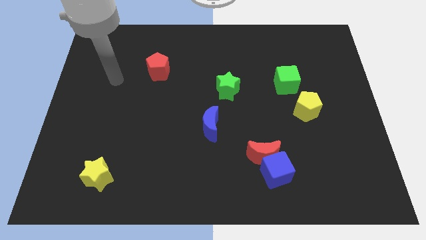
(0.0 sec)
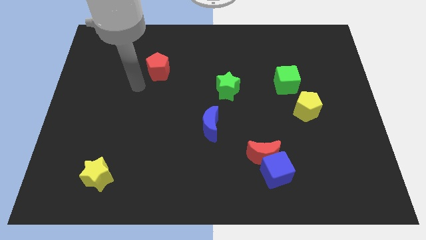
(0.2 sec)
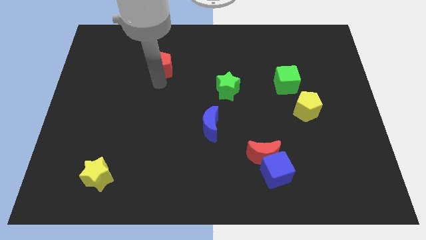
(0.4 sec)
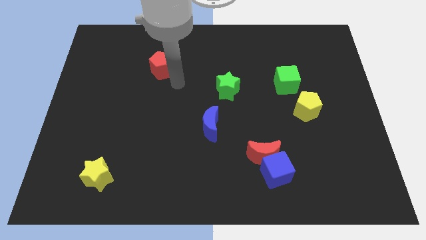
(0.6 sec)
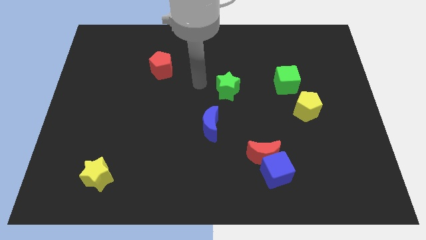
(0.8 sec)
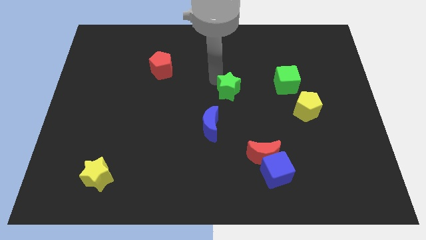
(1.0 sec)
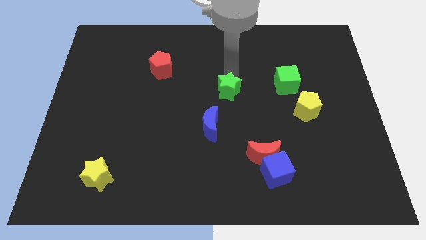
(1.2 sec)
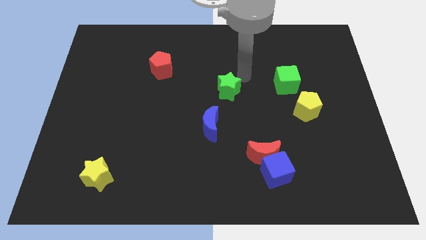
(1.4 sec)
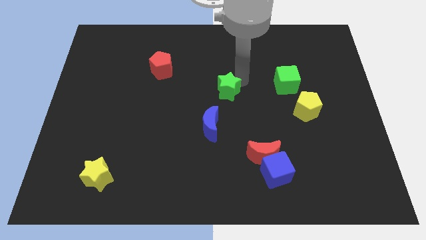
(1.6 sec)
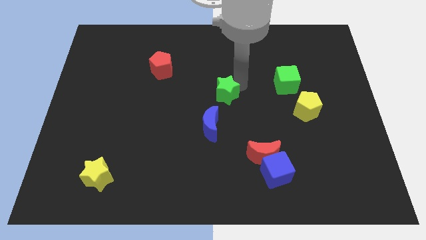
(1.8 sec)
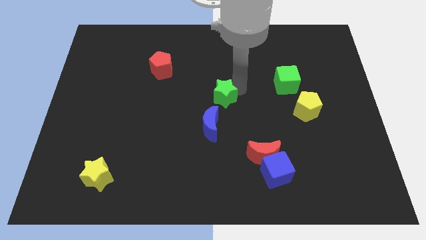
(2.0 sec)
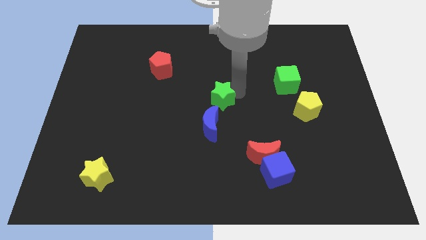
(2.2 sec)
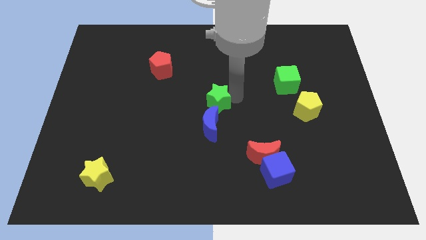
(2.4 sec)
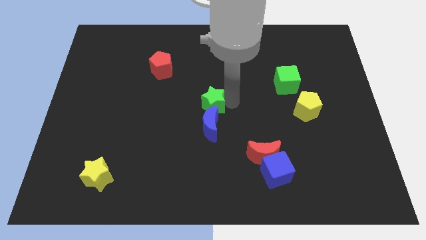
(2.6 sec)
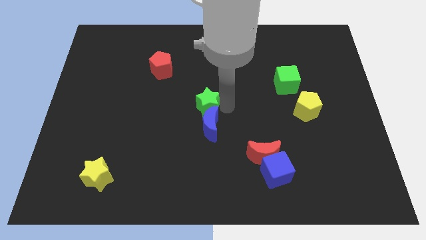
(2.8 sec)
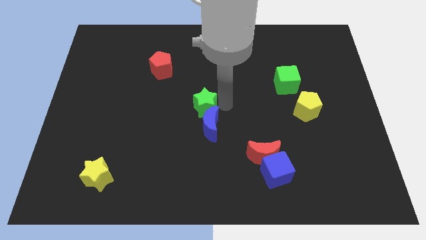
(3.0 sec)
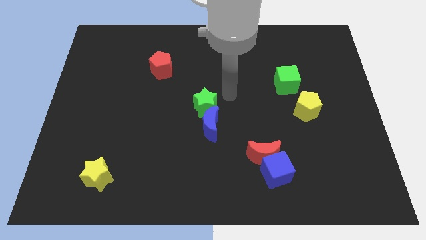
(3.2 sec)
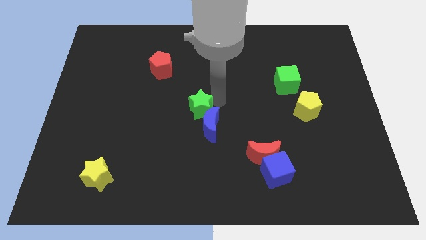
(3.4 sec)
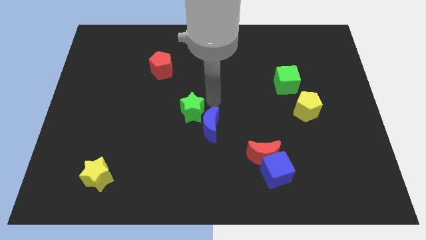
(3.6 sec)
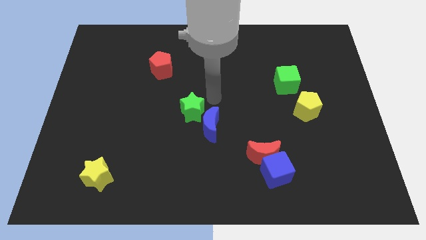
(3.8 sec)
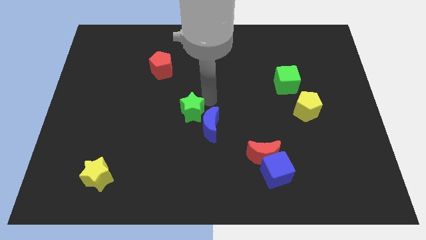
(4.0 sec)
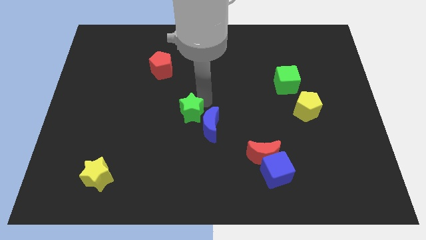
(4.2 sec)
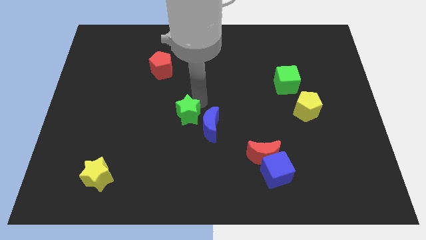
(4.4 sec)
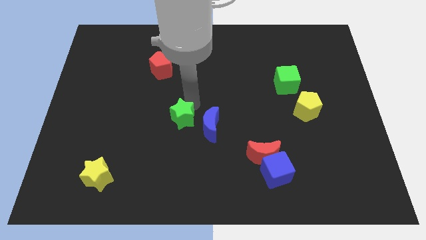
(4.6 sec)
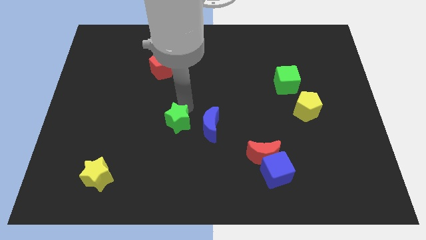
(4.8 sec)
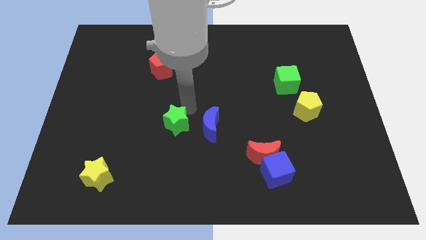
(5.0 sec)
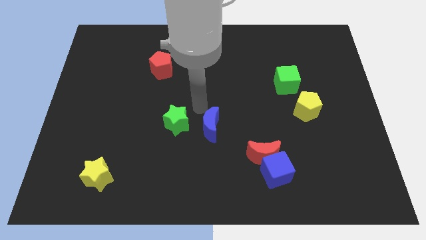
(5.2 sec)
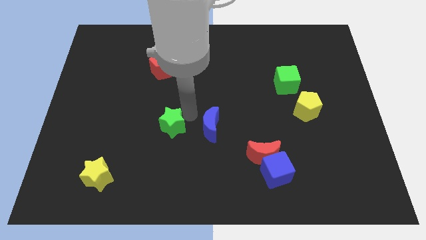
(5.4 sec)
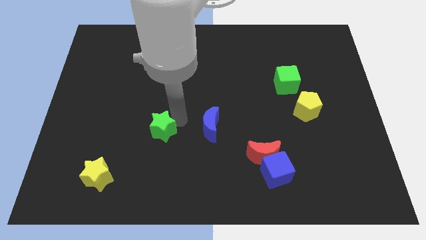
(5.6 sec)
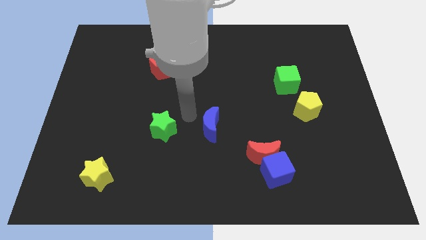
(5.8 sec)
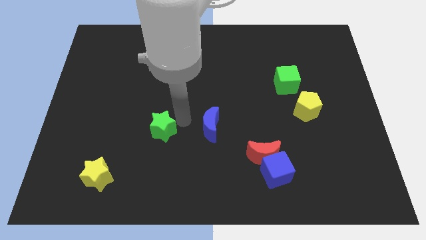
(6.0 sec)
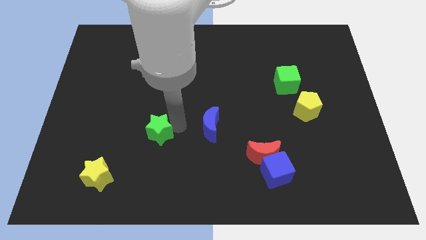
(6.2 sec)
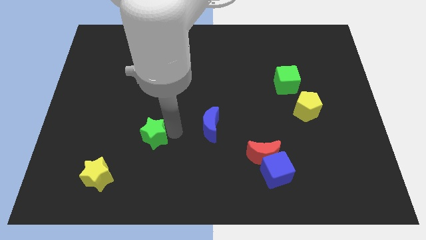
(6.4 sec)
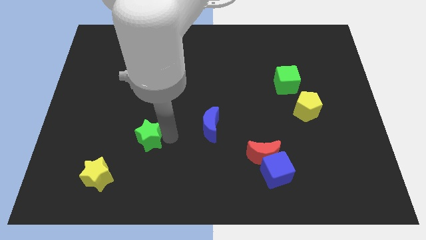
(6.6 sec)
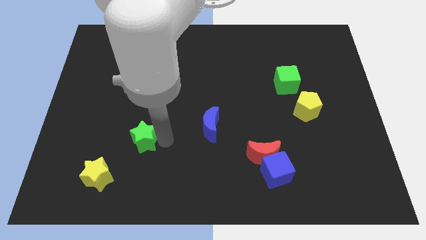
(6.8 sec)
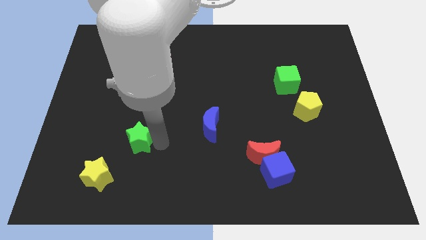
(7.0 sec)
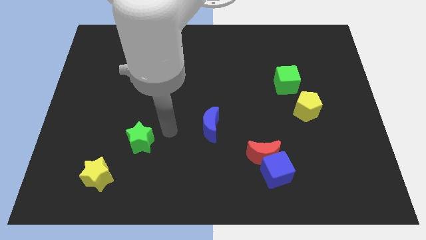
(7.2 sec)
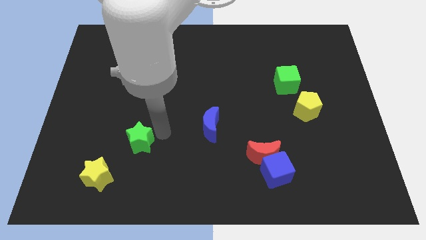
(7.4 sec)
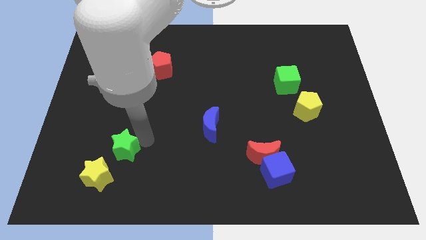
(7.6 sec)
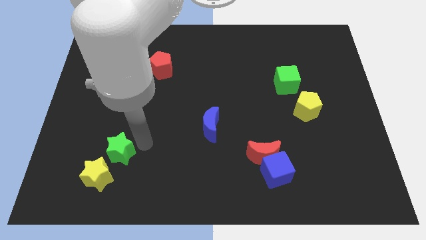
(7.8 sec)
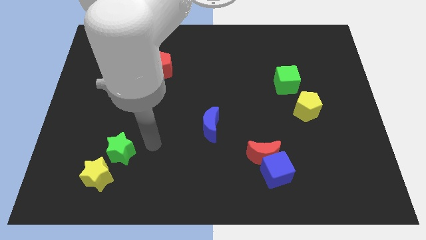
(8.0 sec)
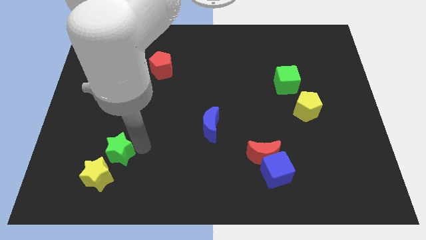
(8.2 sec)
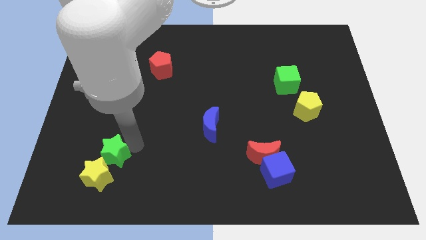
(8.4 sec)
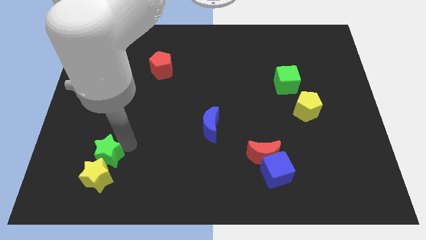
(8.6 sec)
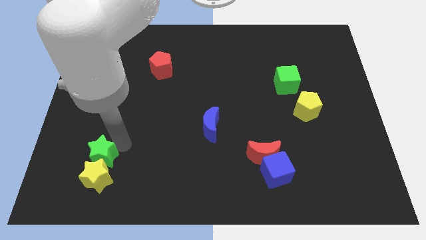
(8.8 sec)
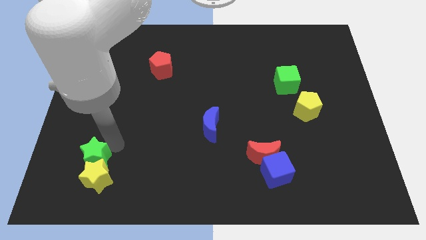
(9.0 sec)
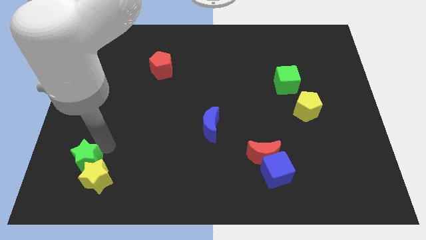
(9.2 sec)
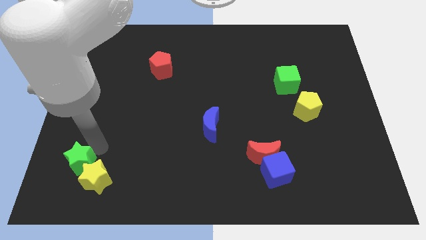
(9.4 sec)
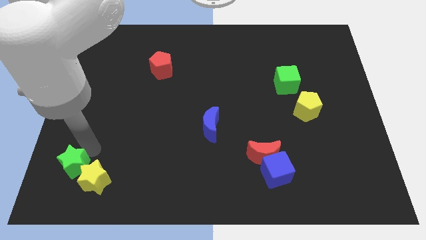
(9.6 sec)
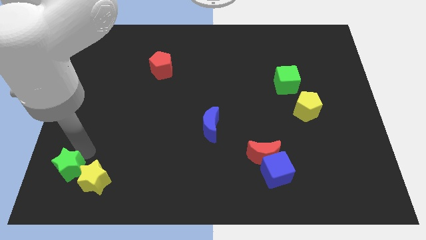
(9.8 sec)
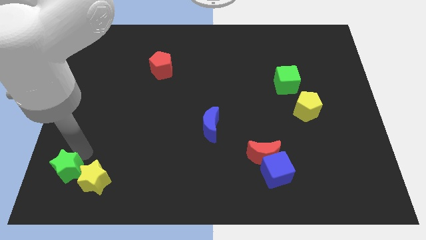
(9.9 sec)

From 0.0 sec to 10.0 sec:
slide the green star to the bottom left

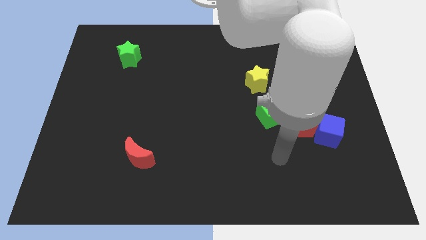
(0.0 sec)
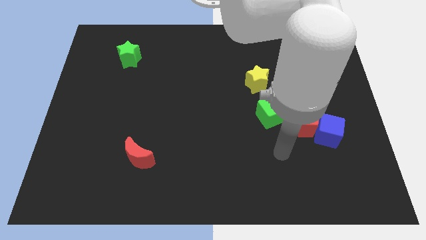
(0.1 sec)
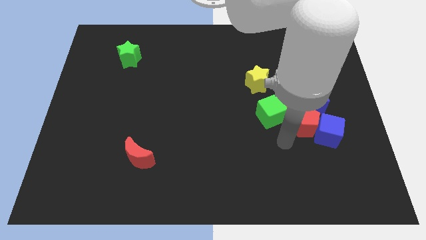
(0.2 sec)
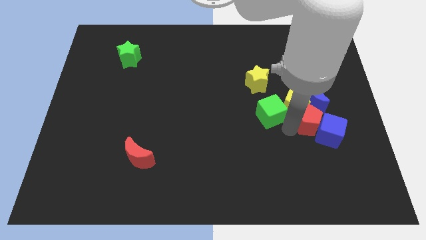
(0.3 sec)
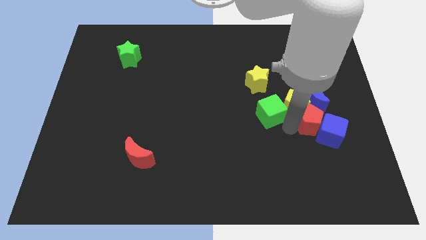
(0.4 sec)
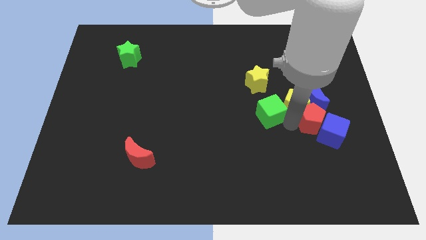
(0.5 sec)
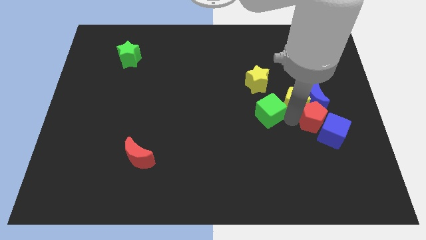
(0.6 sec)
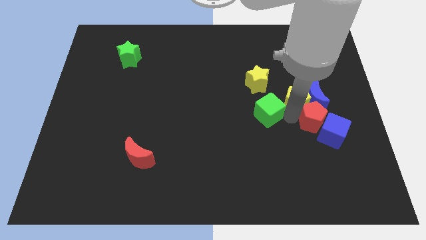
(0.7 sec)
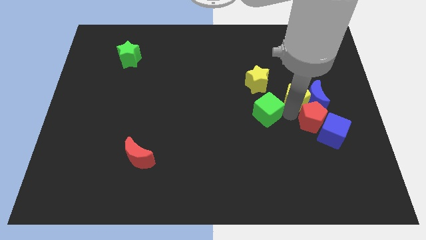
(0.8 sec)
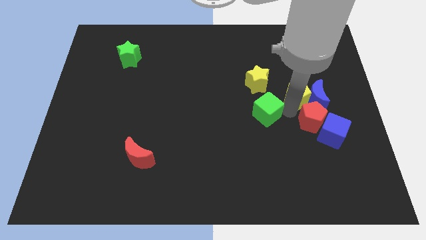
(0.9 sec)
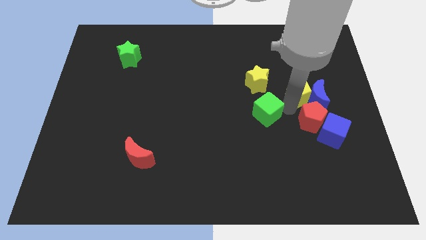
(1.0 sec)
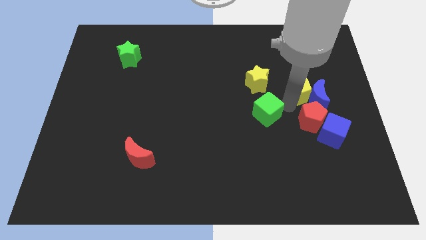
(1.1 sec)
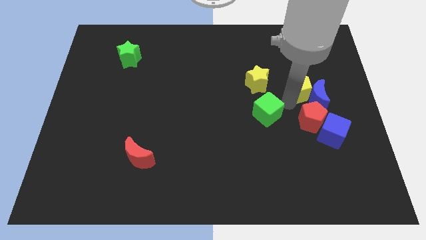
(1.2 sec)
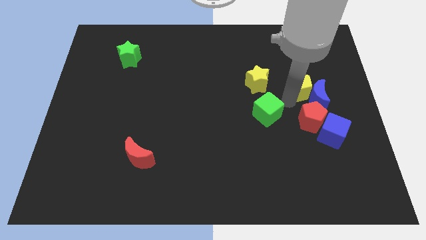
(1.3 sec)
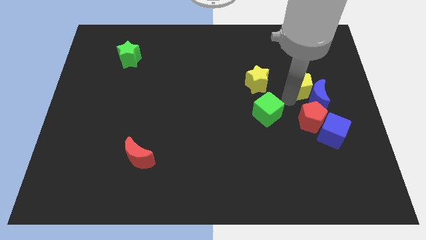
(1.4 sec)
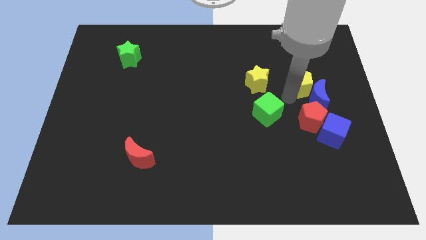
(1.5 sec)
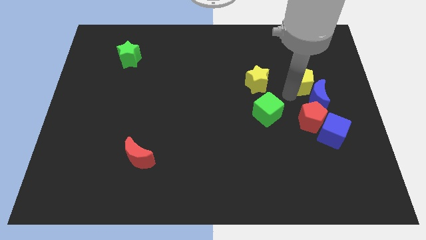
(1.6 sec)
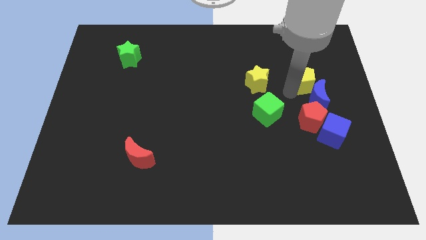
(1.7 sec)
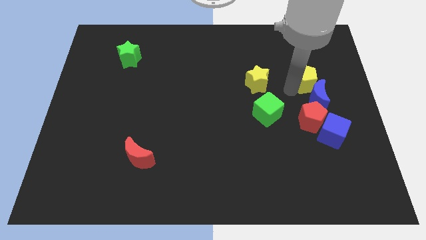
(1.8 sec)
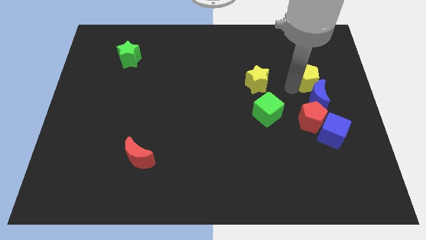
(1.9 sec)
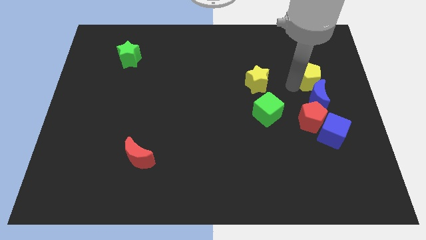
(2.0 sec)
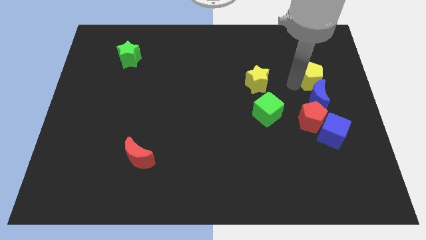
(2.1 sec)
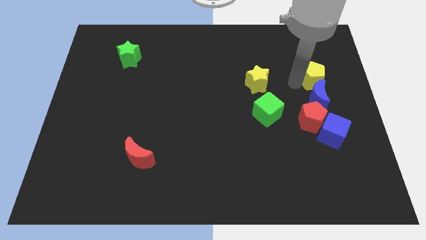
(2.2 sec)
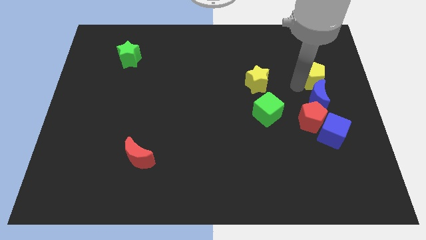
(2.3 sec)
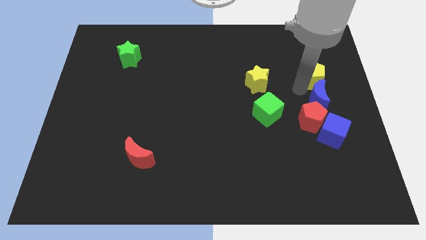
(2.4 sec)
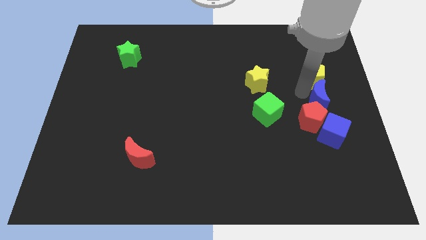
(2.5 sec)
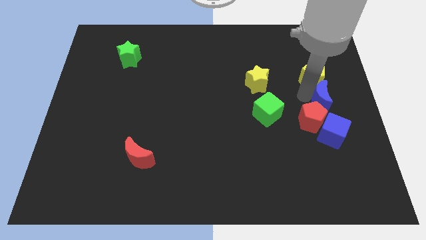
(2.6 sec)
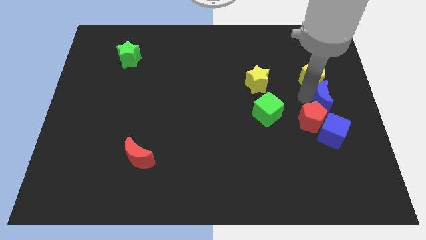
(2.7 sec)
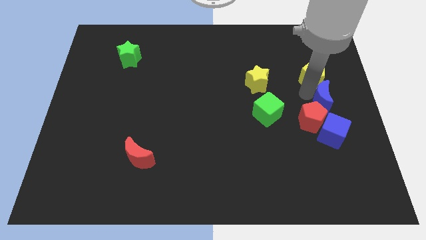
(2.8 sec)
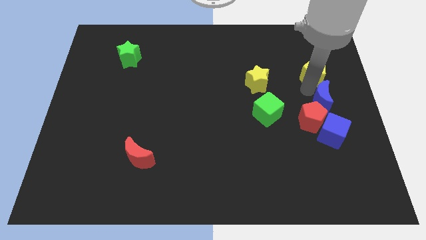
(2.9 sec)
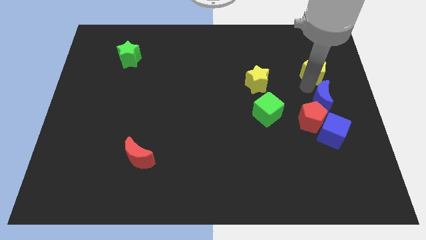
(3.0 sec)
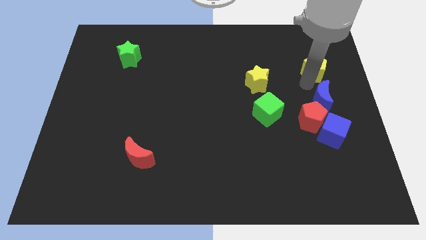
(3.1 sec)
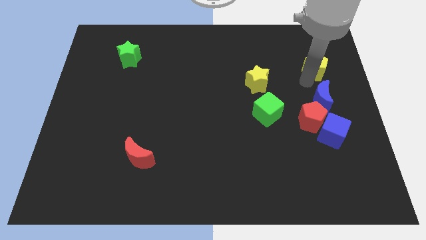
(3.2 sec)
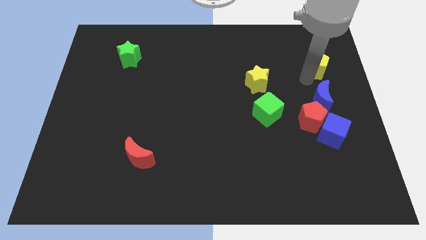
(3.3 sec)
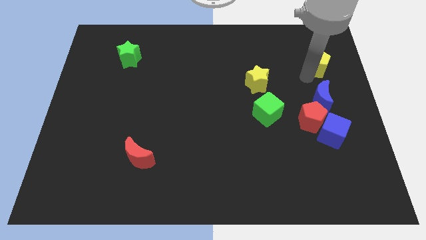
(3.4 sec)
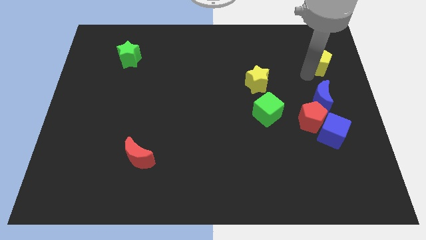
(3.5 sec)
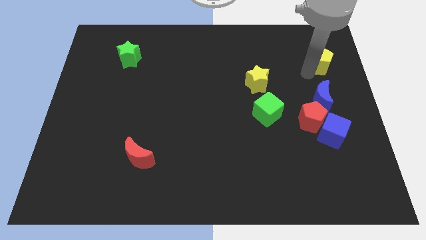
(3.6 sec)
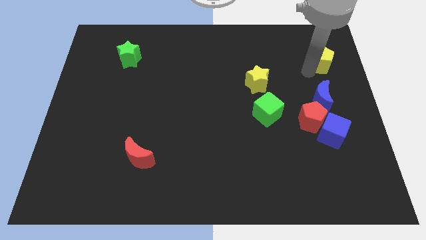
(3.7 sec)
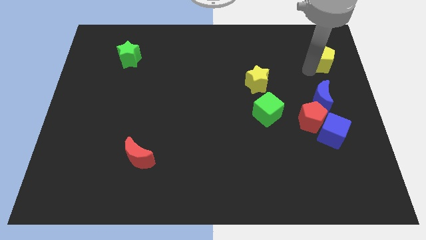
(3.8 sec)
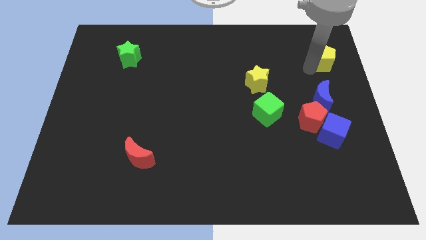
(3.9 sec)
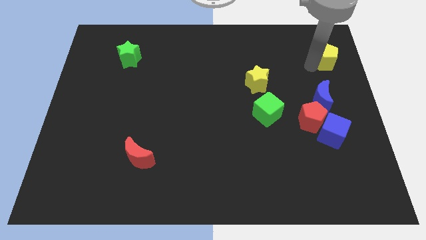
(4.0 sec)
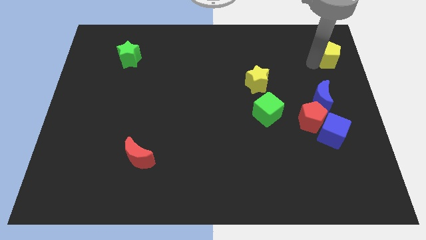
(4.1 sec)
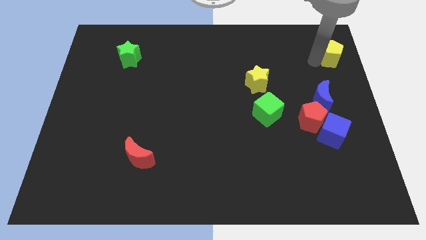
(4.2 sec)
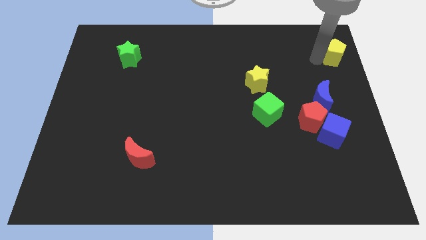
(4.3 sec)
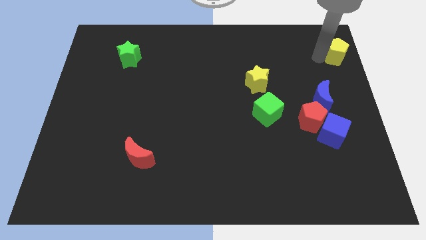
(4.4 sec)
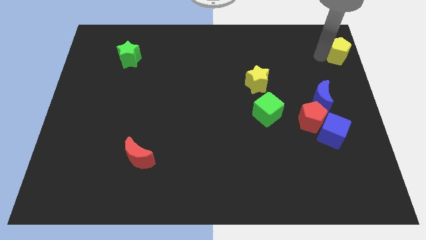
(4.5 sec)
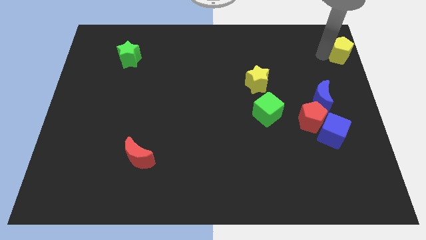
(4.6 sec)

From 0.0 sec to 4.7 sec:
move the yellow pentagon to the top right
